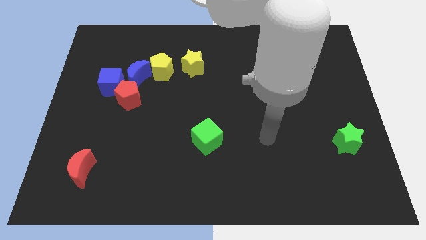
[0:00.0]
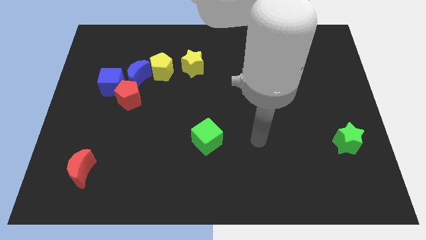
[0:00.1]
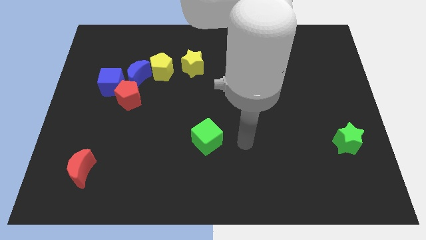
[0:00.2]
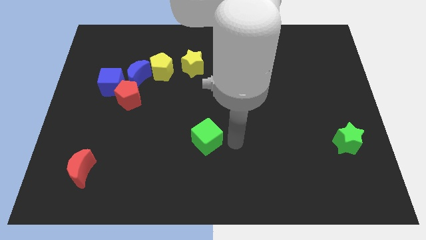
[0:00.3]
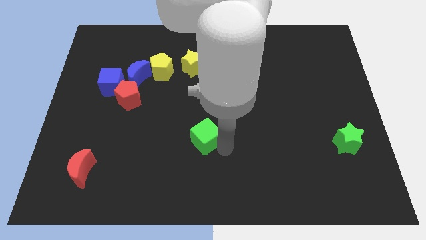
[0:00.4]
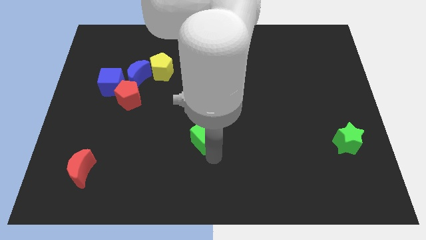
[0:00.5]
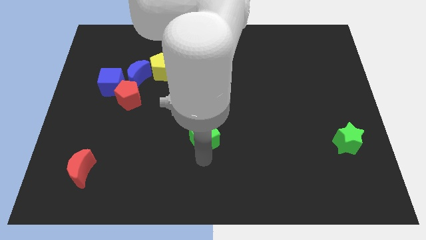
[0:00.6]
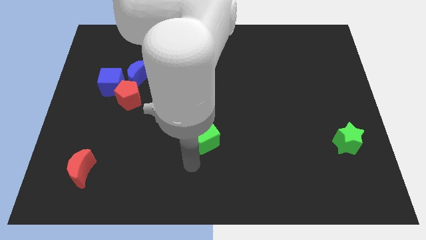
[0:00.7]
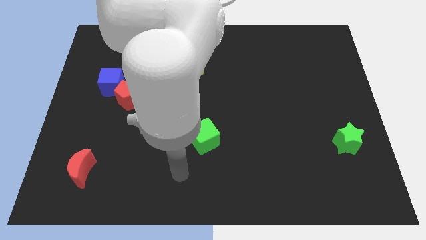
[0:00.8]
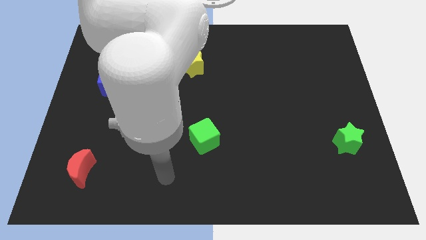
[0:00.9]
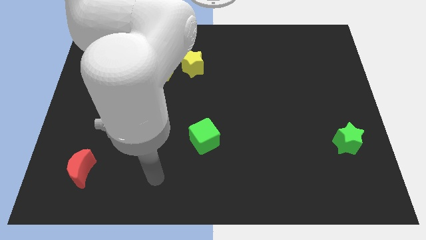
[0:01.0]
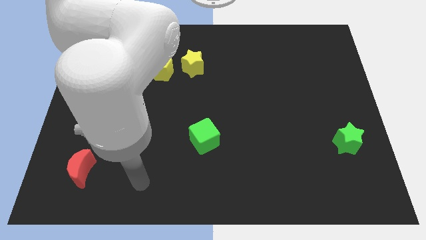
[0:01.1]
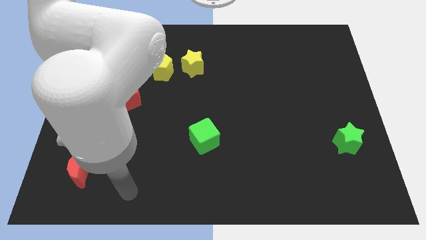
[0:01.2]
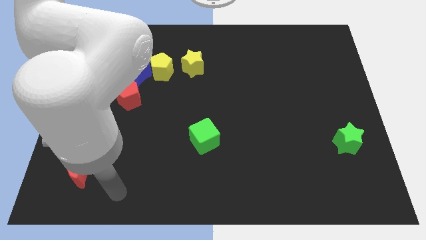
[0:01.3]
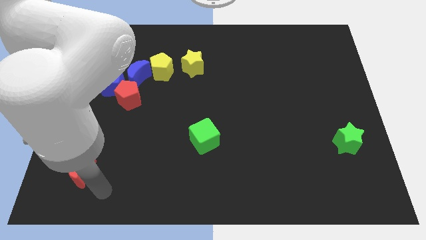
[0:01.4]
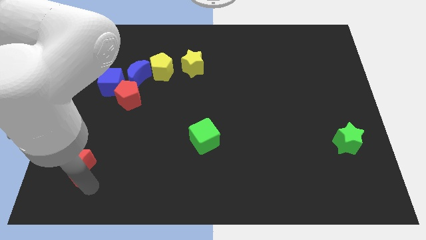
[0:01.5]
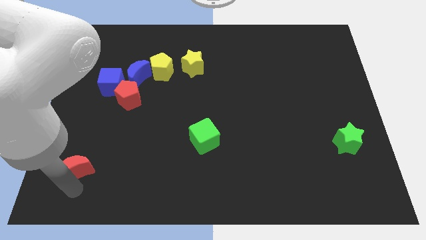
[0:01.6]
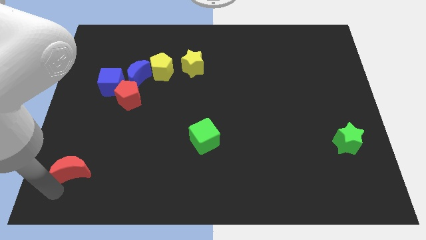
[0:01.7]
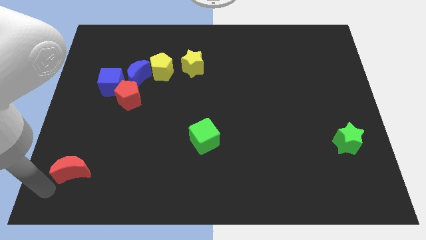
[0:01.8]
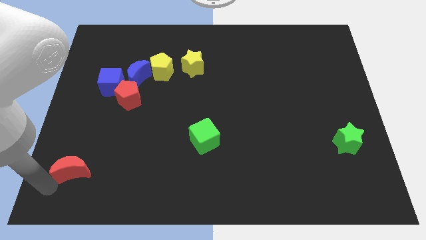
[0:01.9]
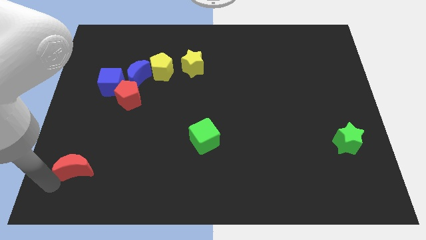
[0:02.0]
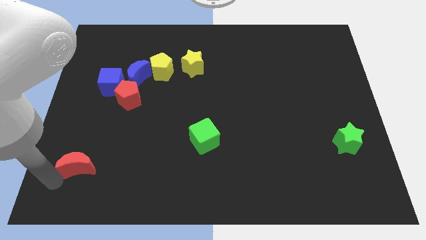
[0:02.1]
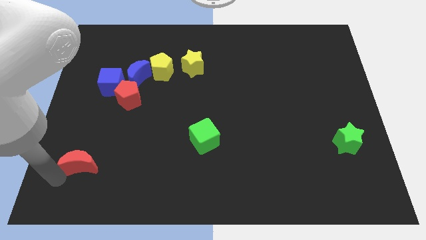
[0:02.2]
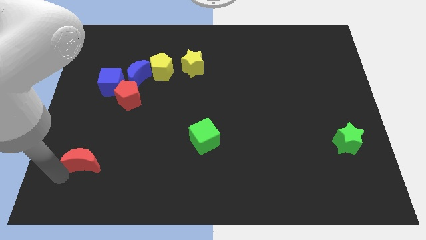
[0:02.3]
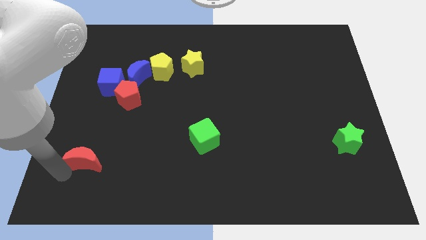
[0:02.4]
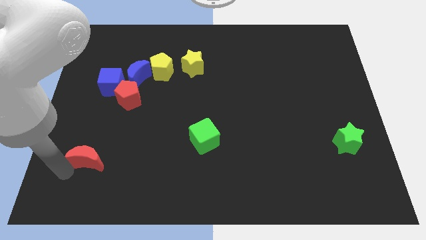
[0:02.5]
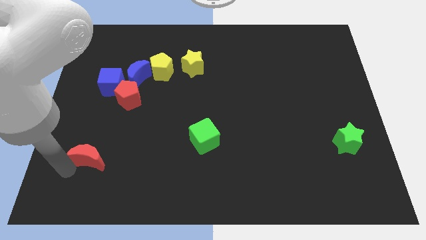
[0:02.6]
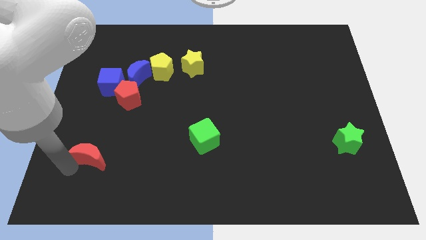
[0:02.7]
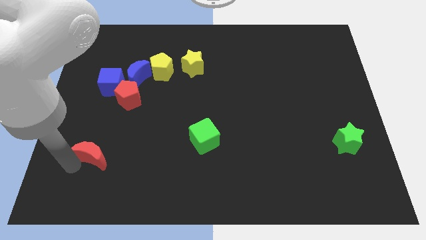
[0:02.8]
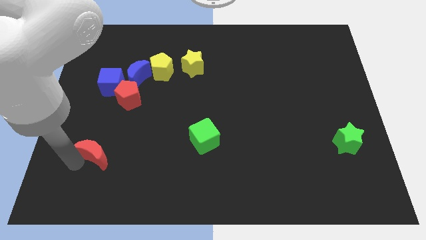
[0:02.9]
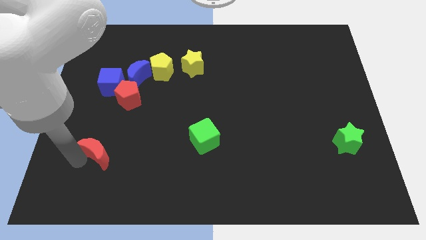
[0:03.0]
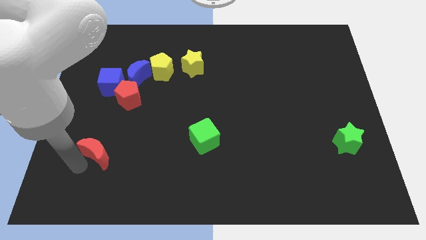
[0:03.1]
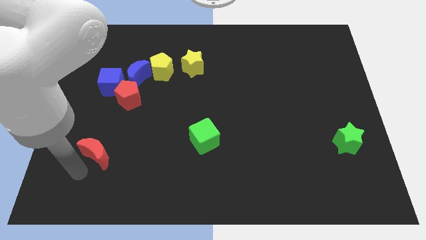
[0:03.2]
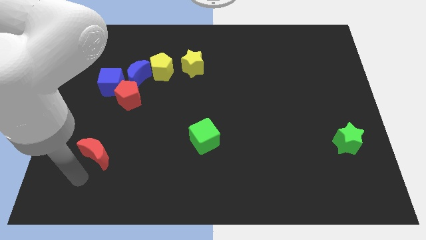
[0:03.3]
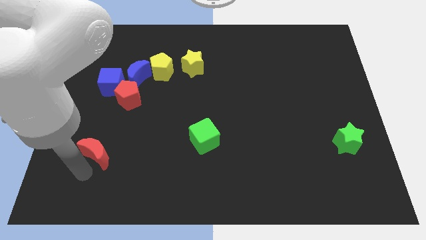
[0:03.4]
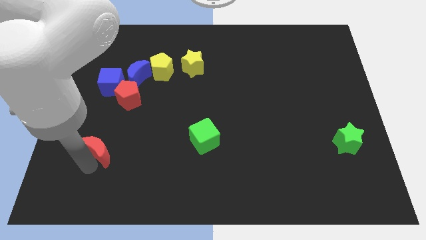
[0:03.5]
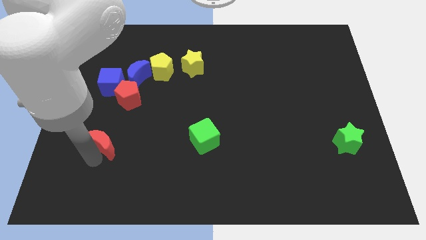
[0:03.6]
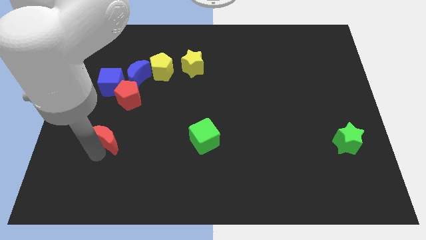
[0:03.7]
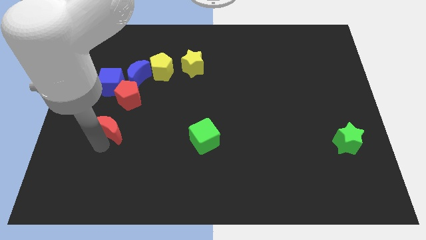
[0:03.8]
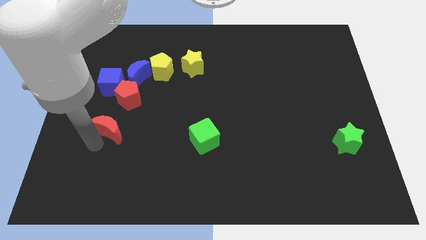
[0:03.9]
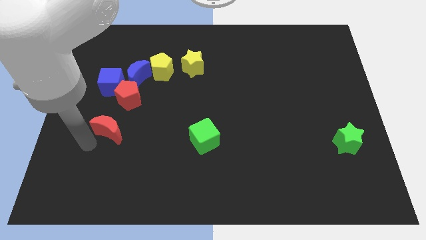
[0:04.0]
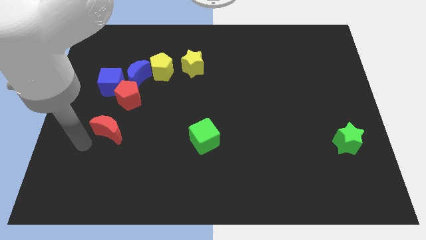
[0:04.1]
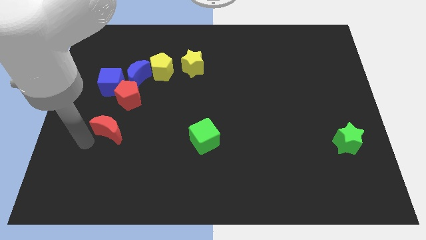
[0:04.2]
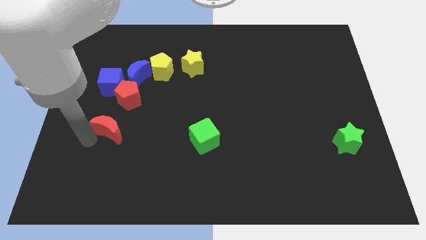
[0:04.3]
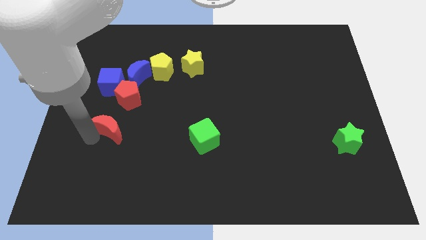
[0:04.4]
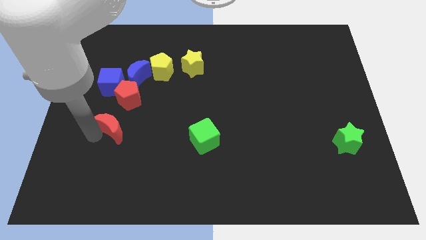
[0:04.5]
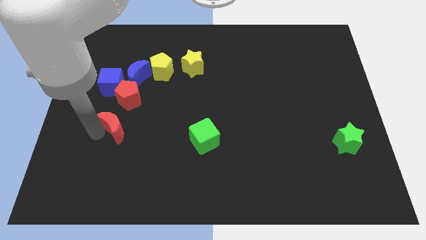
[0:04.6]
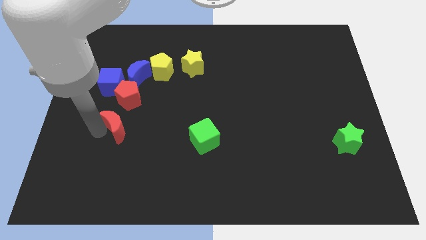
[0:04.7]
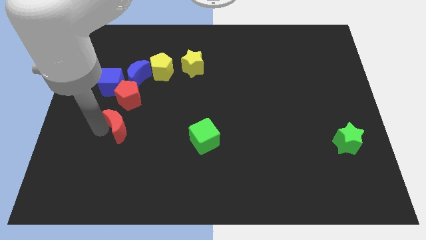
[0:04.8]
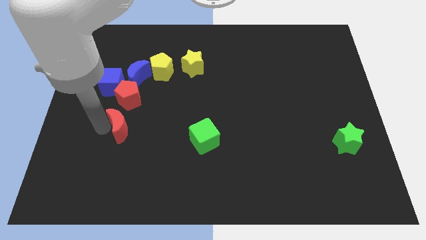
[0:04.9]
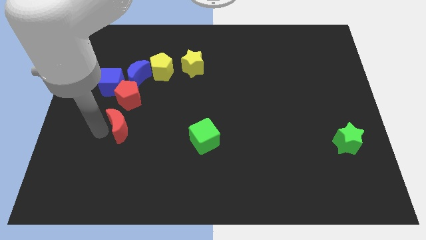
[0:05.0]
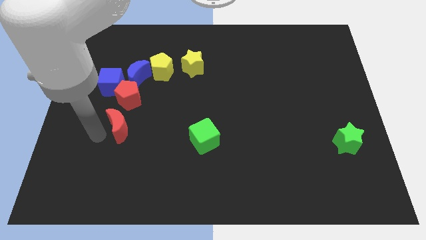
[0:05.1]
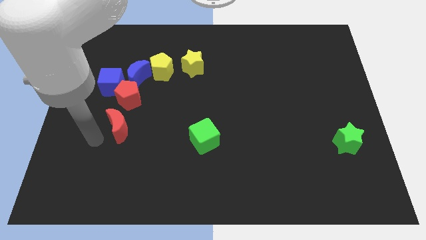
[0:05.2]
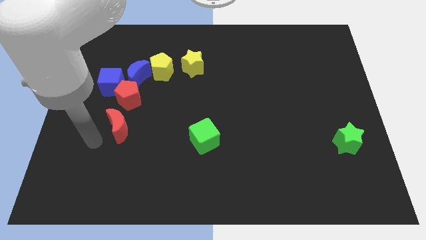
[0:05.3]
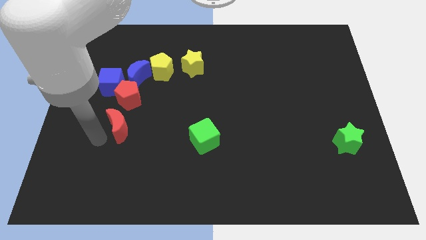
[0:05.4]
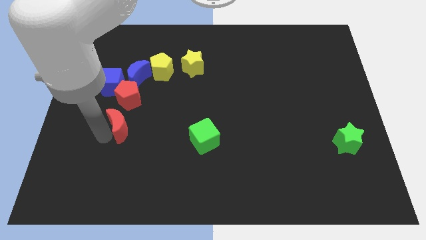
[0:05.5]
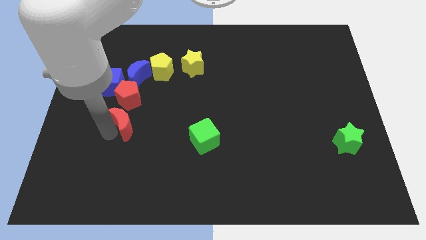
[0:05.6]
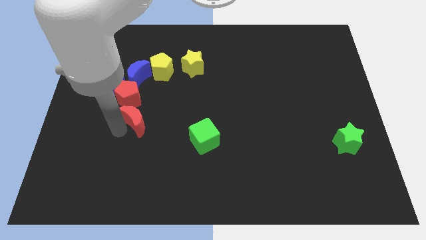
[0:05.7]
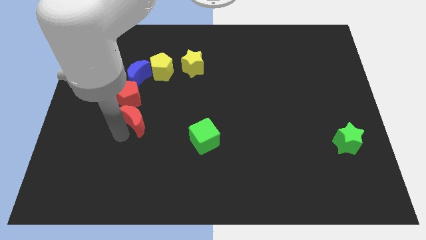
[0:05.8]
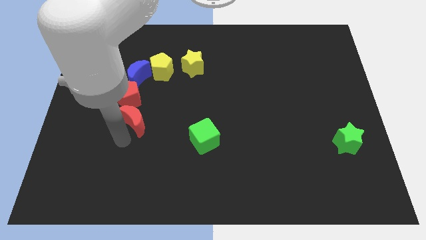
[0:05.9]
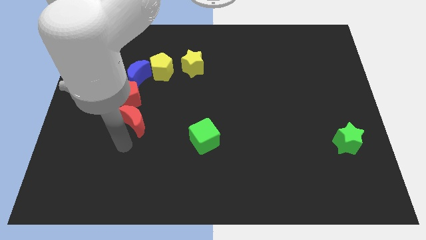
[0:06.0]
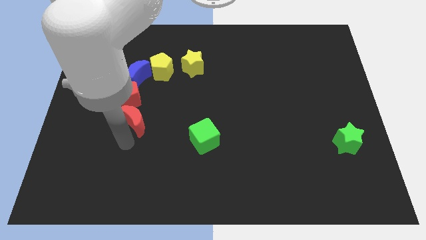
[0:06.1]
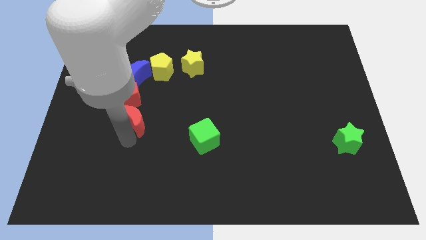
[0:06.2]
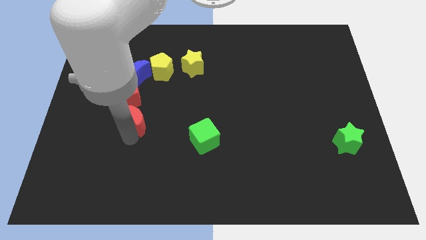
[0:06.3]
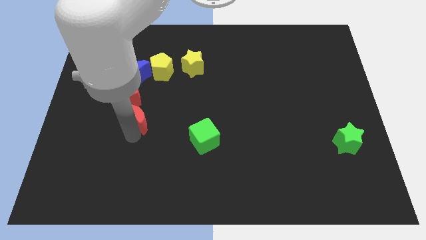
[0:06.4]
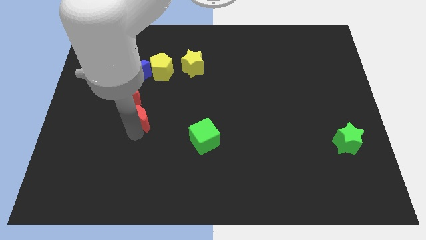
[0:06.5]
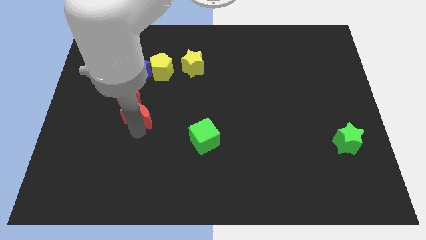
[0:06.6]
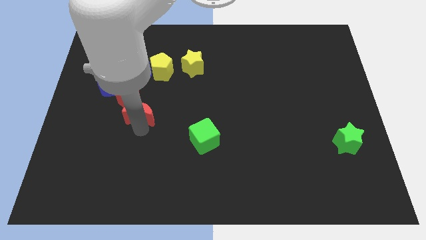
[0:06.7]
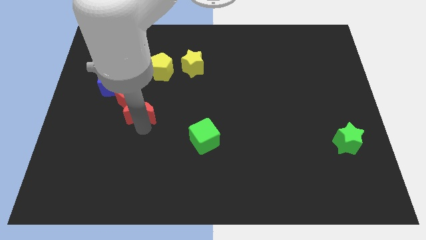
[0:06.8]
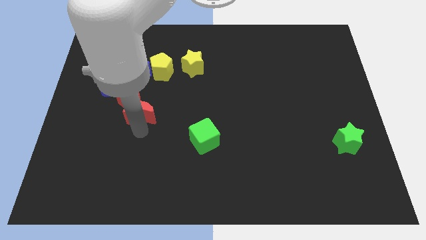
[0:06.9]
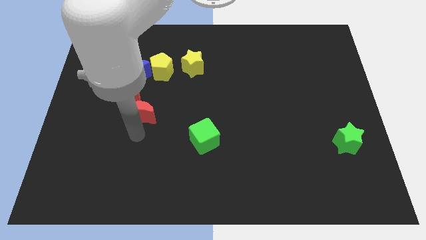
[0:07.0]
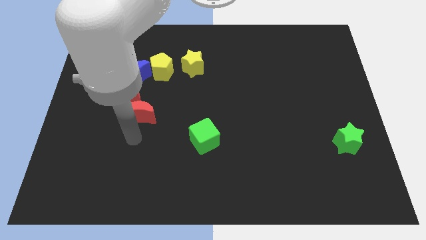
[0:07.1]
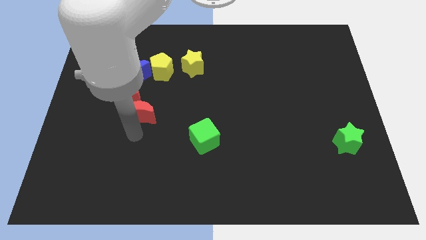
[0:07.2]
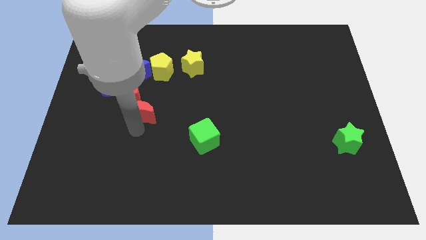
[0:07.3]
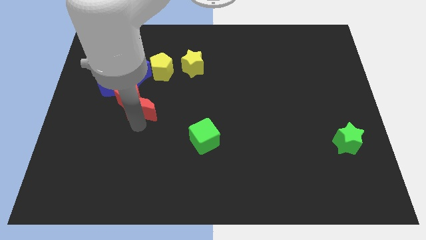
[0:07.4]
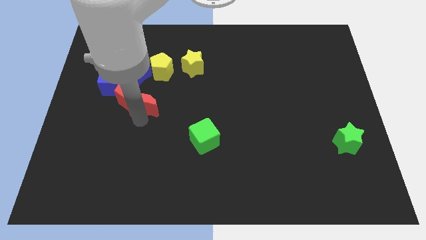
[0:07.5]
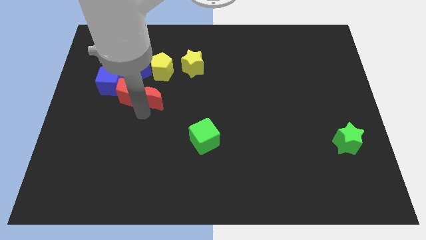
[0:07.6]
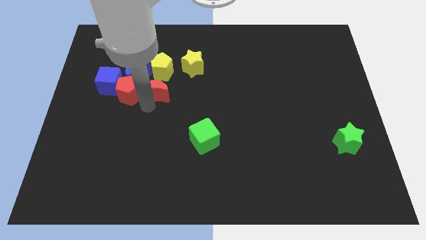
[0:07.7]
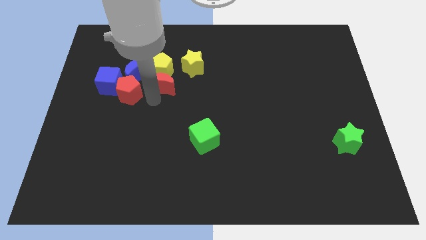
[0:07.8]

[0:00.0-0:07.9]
put the red moon towards the yellow pentagon
